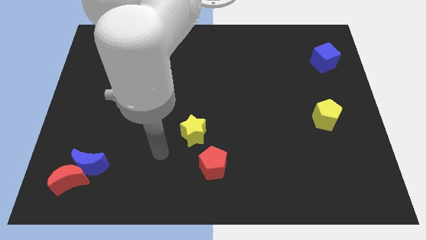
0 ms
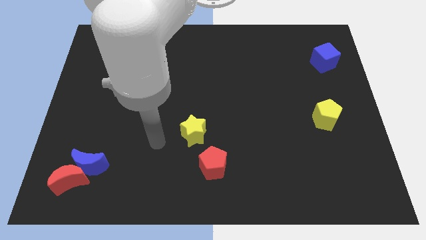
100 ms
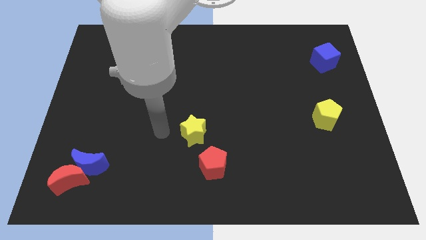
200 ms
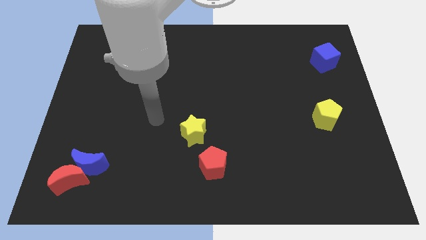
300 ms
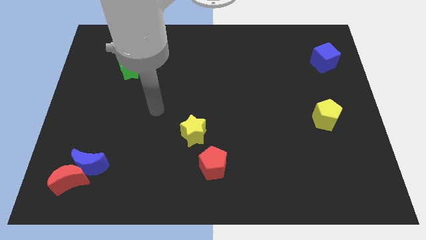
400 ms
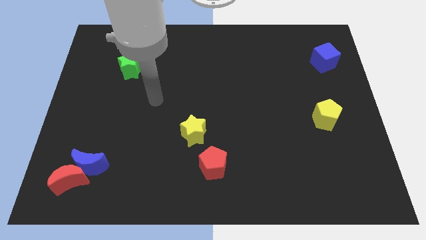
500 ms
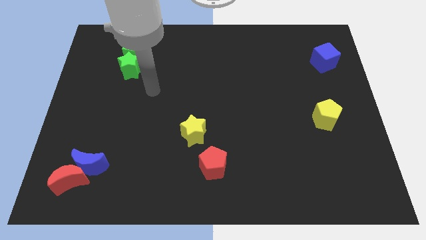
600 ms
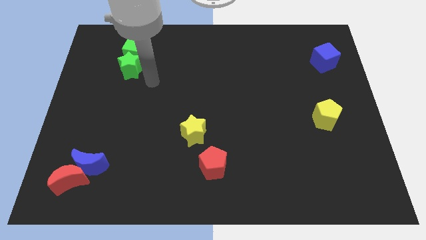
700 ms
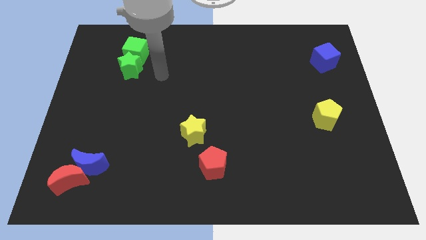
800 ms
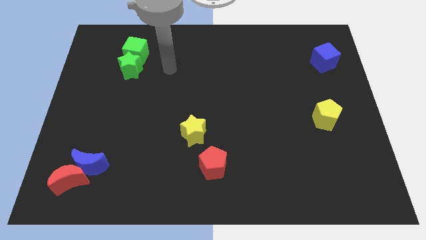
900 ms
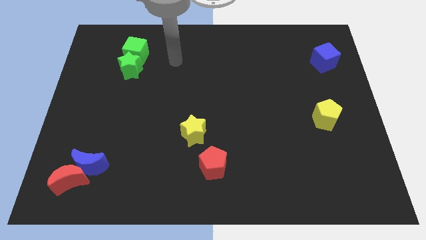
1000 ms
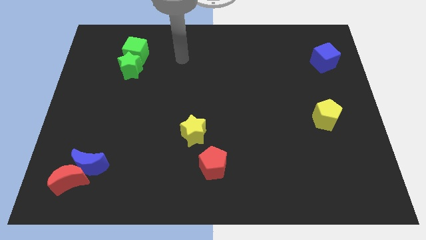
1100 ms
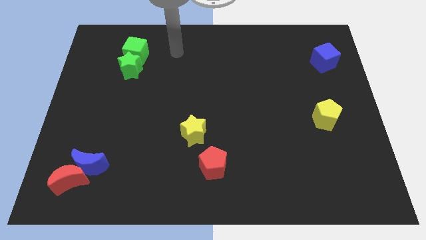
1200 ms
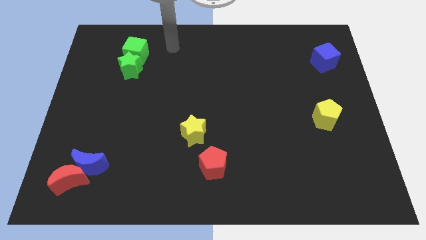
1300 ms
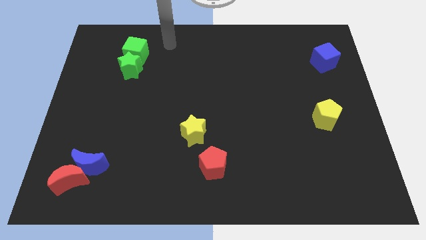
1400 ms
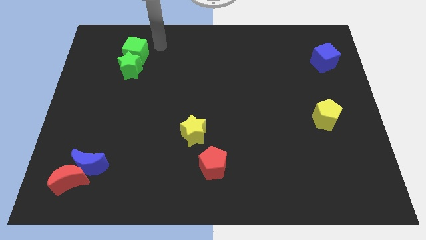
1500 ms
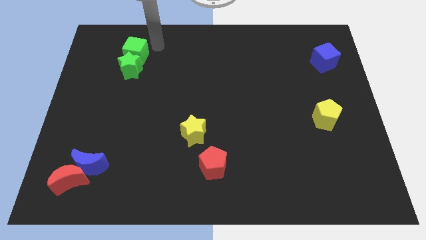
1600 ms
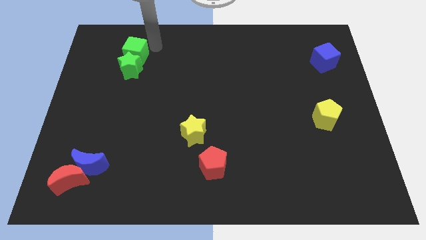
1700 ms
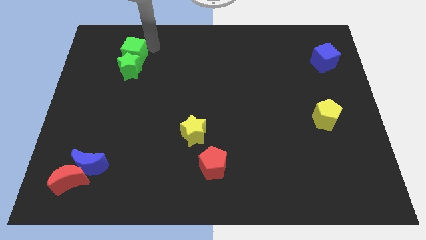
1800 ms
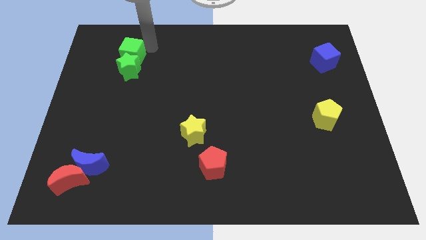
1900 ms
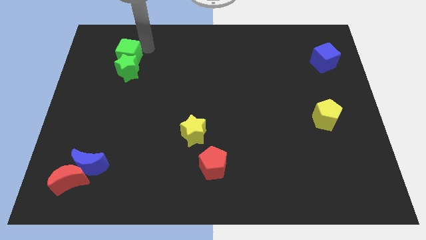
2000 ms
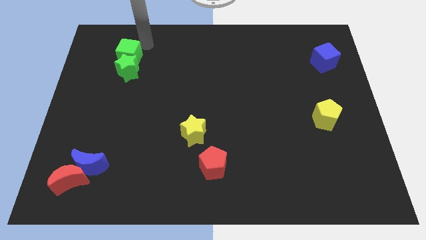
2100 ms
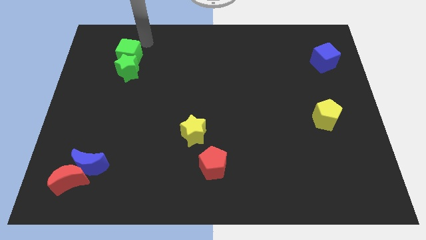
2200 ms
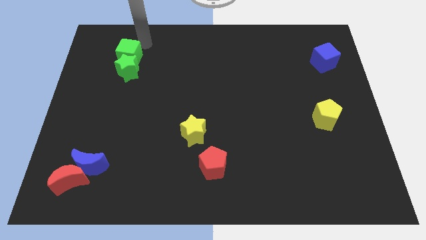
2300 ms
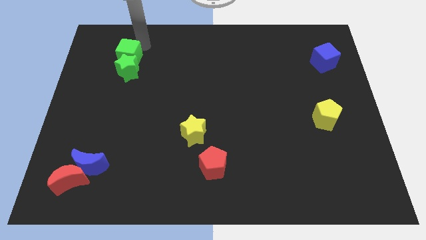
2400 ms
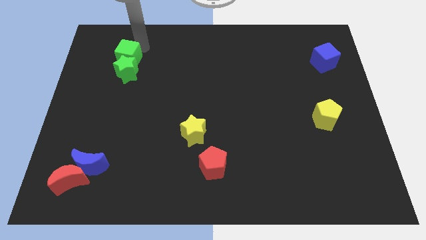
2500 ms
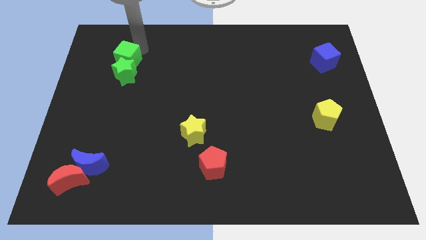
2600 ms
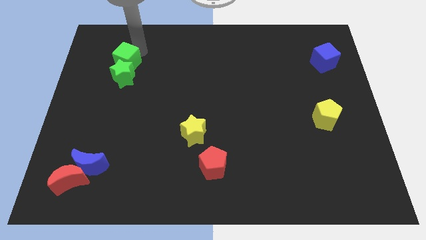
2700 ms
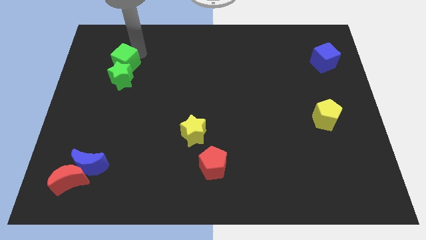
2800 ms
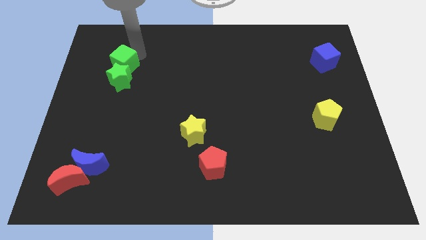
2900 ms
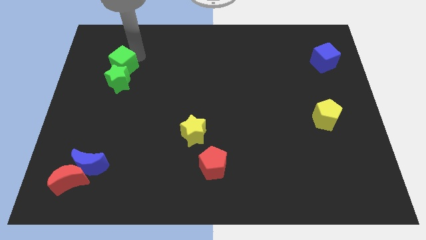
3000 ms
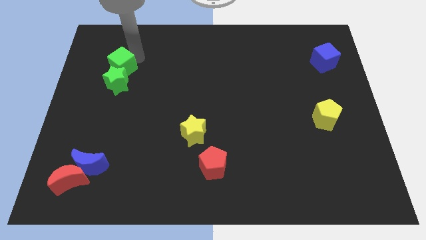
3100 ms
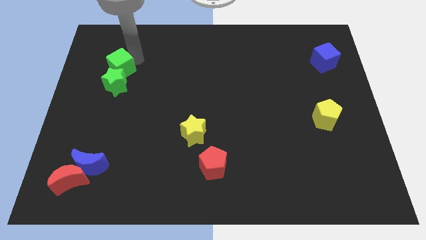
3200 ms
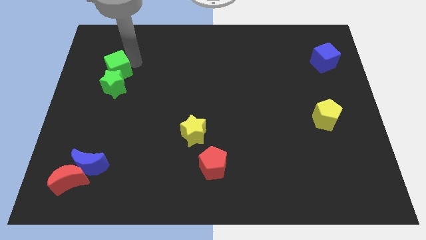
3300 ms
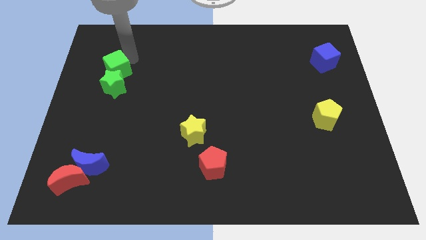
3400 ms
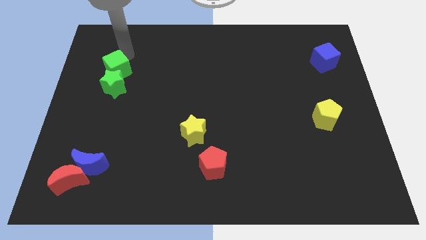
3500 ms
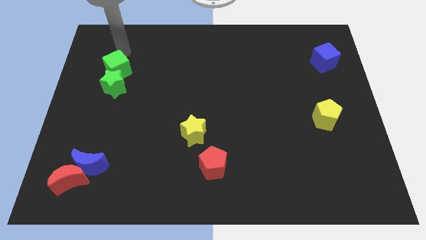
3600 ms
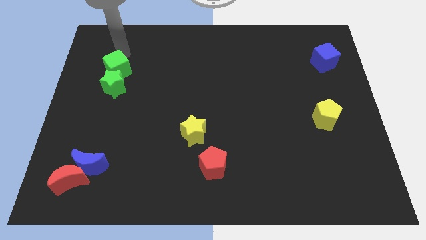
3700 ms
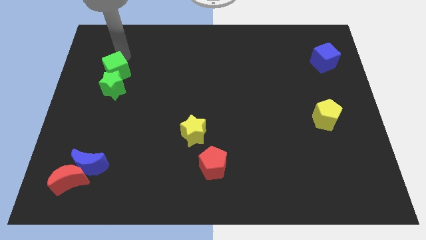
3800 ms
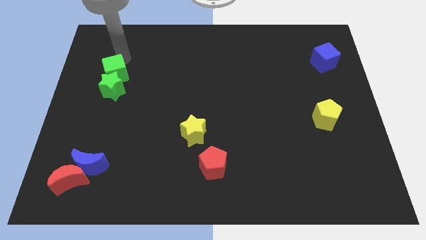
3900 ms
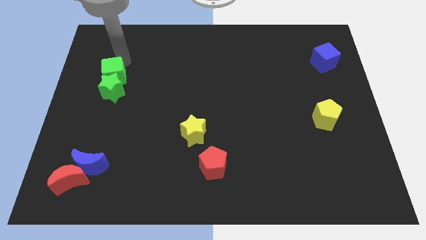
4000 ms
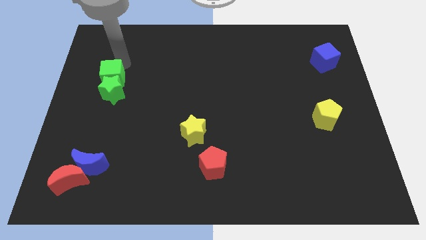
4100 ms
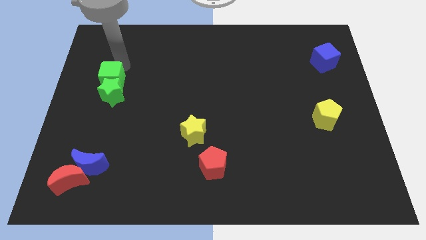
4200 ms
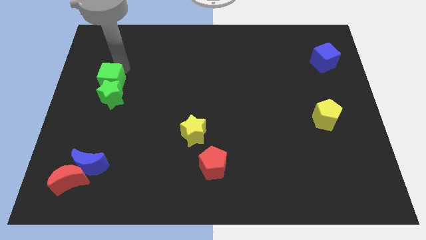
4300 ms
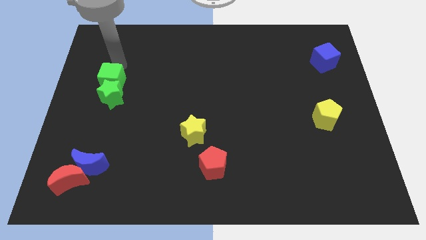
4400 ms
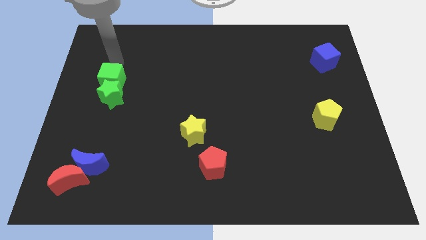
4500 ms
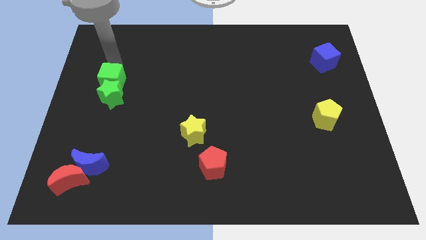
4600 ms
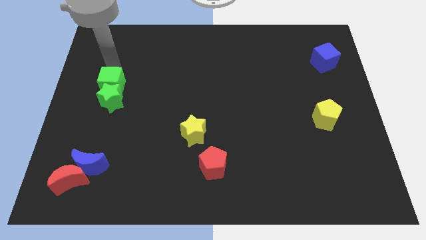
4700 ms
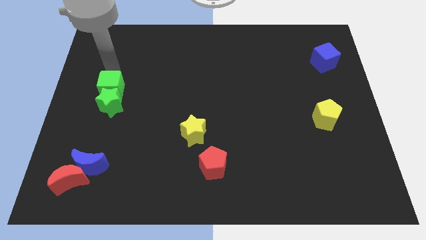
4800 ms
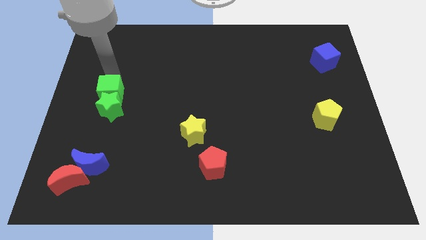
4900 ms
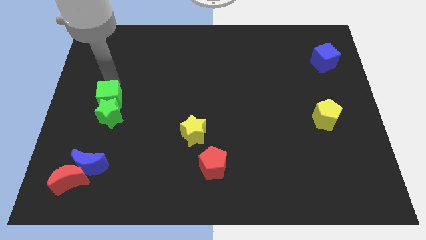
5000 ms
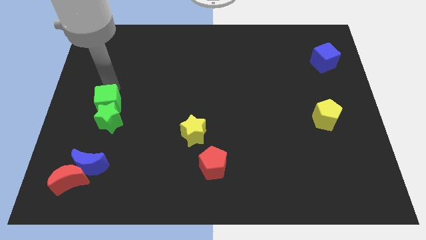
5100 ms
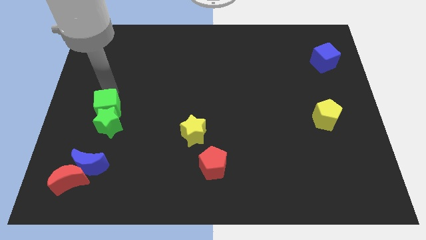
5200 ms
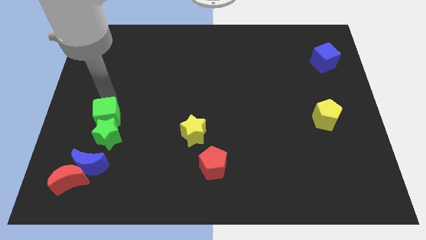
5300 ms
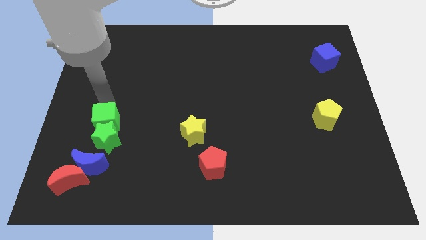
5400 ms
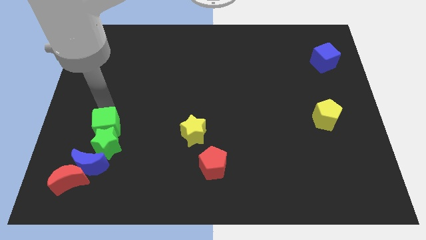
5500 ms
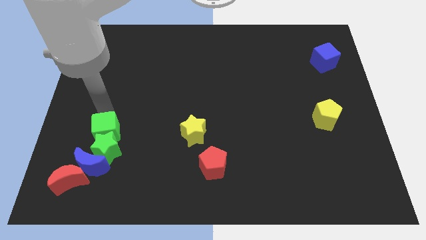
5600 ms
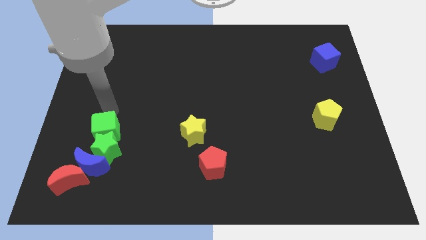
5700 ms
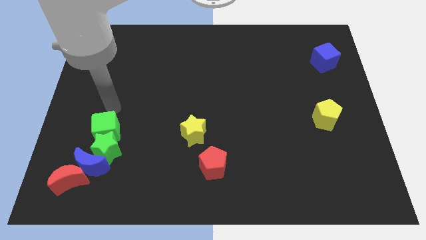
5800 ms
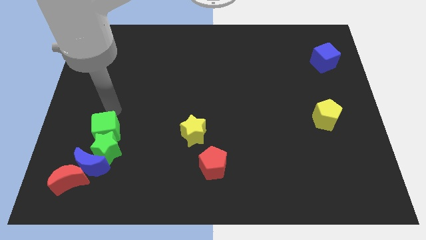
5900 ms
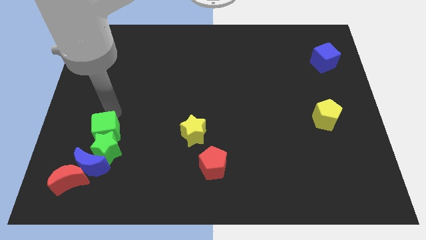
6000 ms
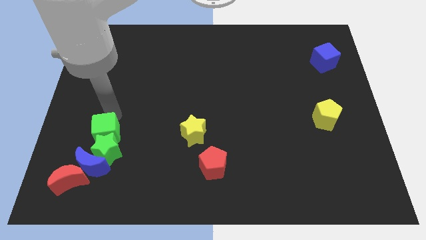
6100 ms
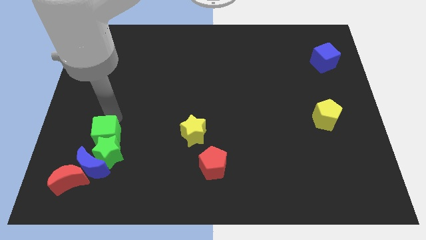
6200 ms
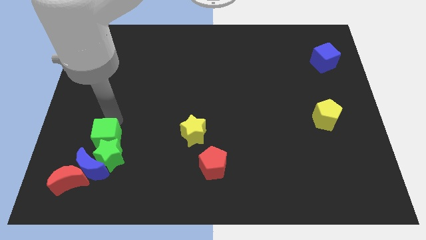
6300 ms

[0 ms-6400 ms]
put the green cube to the top right side of the red moon
